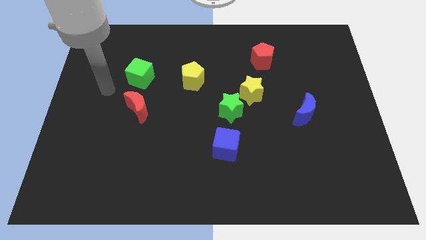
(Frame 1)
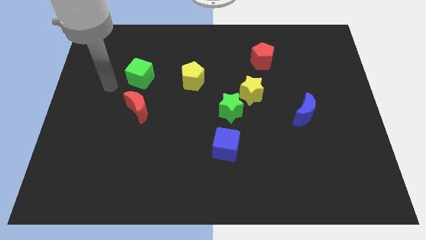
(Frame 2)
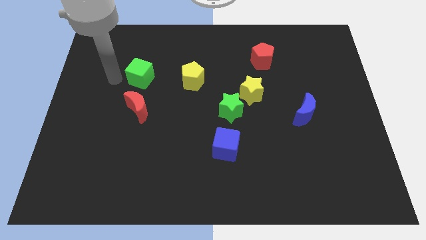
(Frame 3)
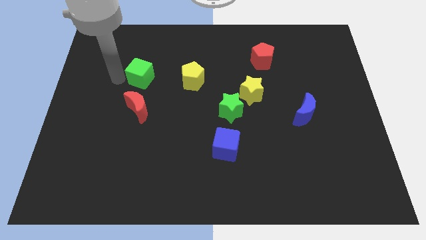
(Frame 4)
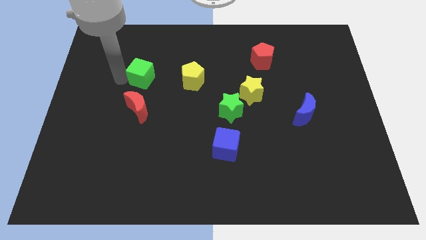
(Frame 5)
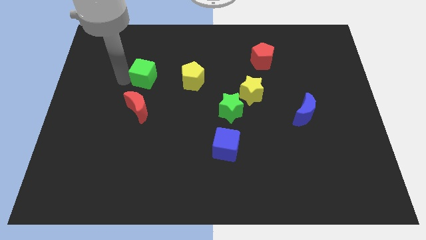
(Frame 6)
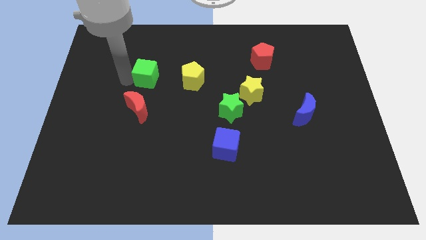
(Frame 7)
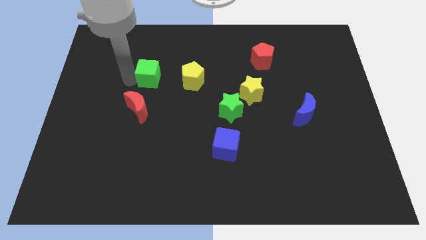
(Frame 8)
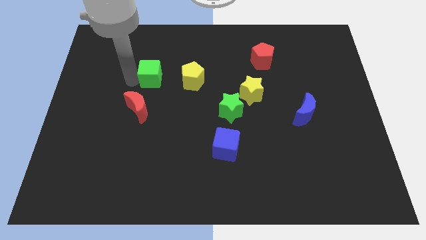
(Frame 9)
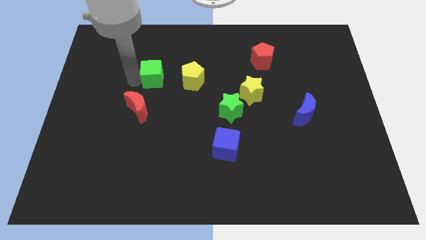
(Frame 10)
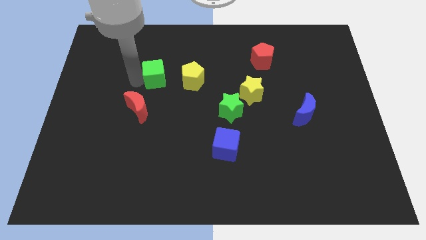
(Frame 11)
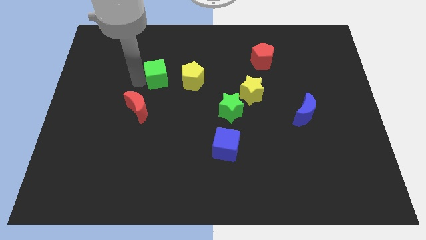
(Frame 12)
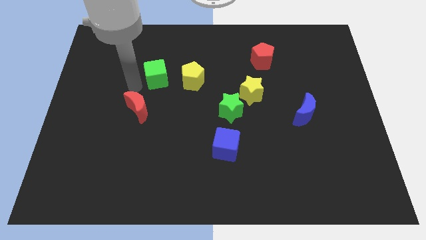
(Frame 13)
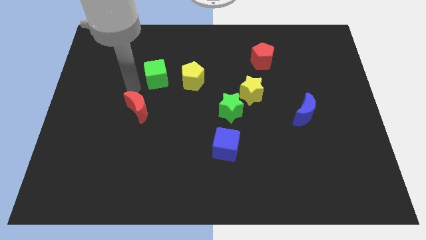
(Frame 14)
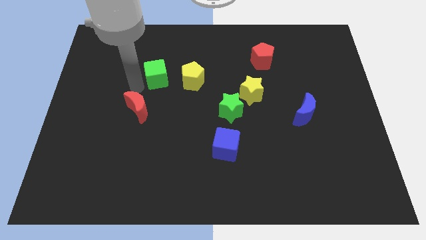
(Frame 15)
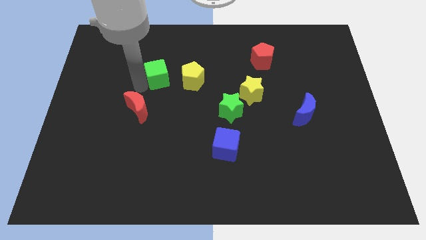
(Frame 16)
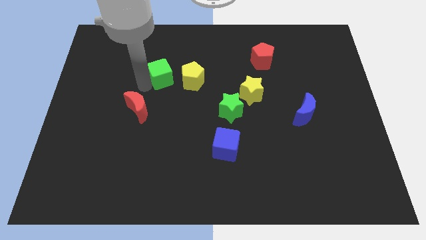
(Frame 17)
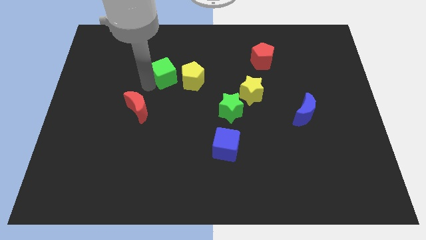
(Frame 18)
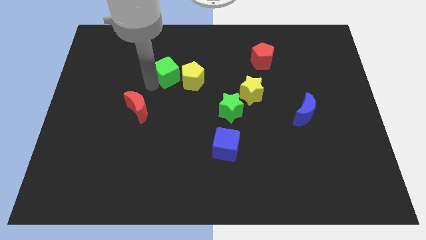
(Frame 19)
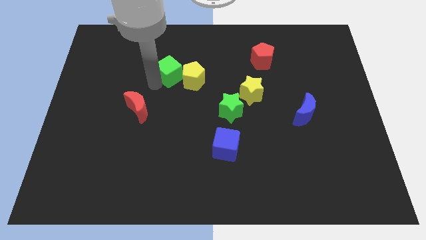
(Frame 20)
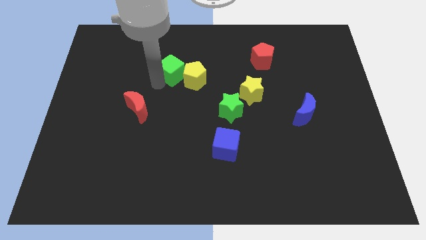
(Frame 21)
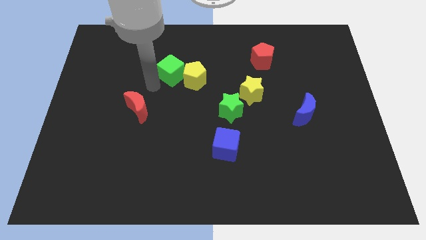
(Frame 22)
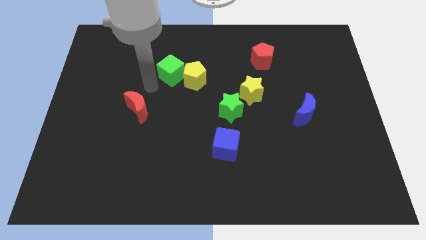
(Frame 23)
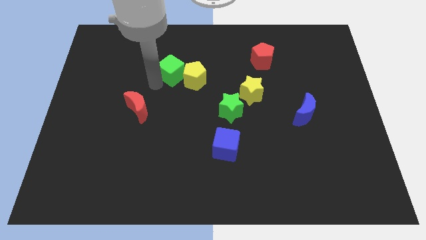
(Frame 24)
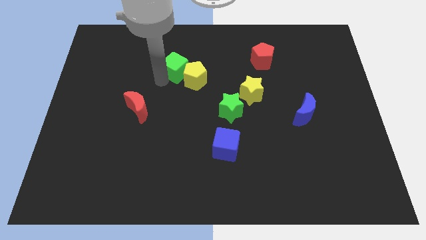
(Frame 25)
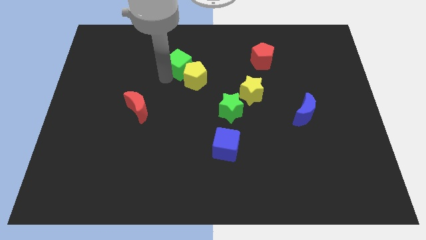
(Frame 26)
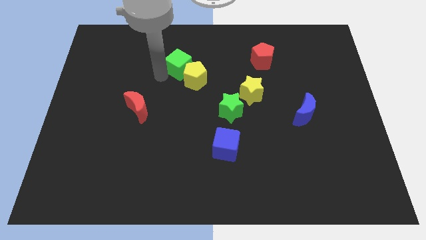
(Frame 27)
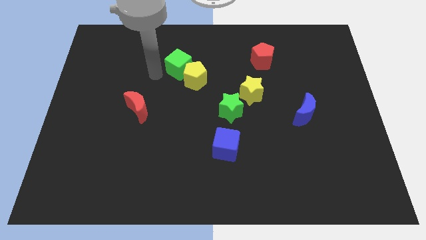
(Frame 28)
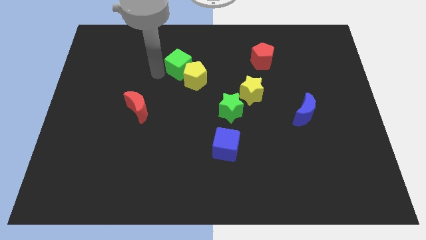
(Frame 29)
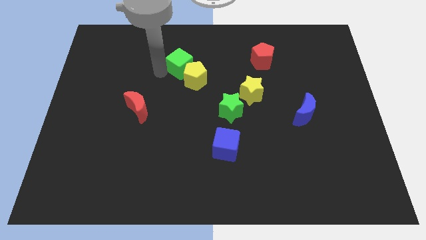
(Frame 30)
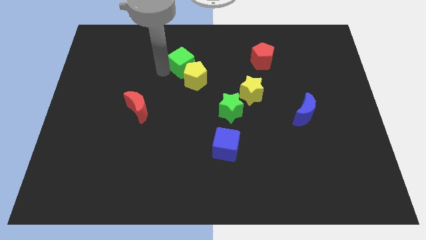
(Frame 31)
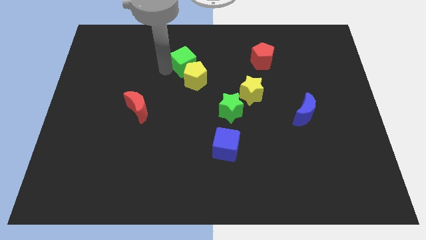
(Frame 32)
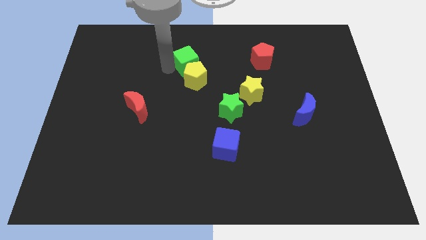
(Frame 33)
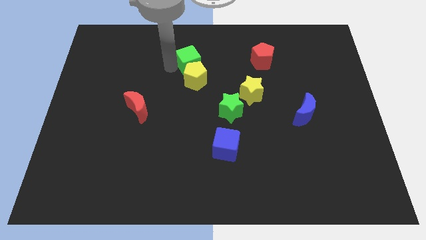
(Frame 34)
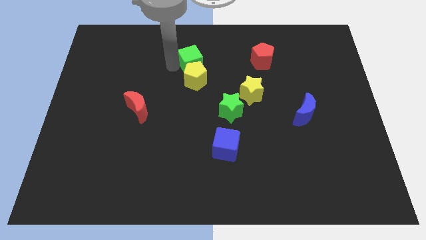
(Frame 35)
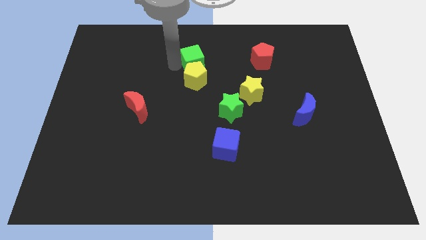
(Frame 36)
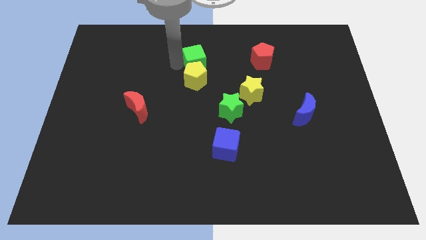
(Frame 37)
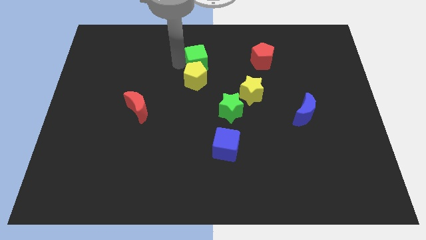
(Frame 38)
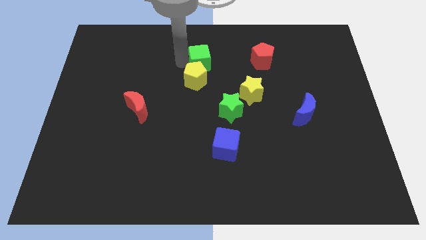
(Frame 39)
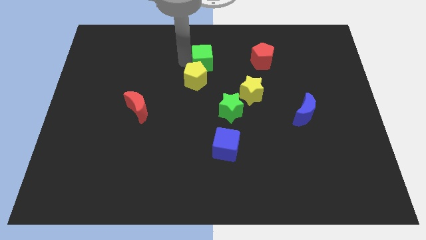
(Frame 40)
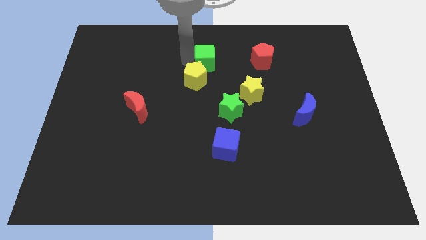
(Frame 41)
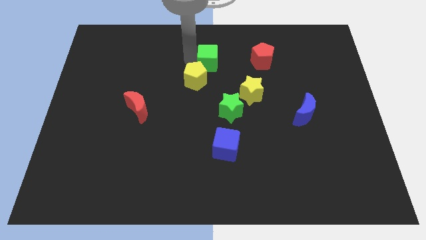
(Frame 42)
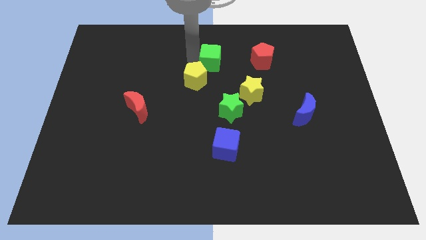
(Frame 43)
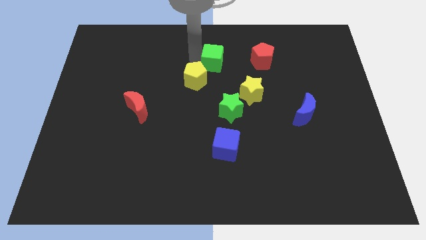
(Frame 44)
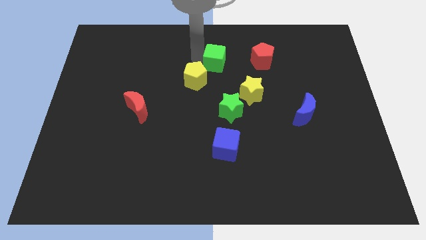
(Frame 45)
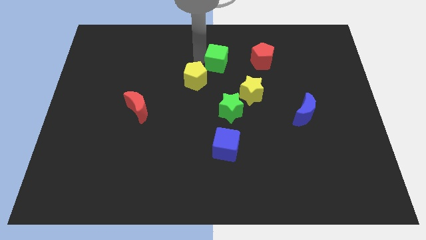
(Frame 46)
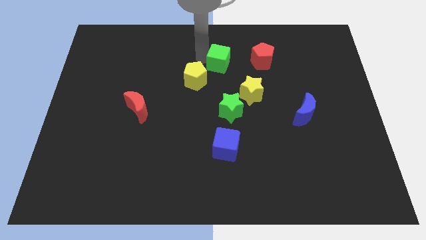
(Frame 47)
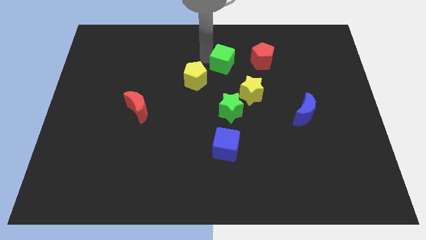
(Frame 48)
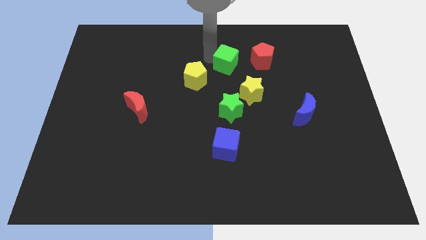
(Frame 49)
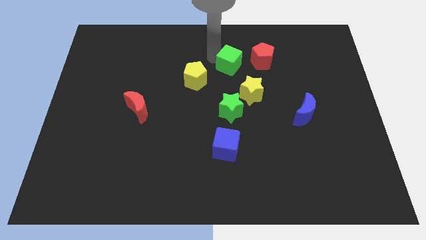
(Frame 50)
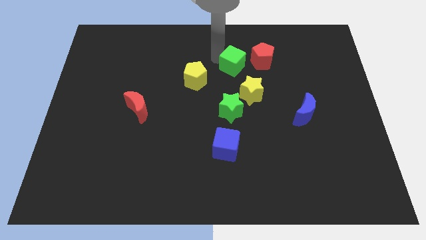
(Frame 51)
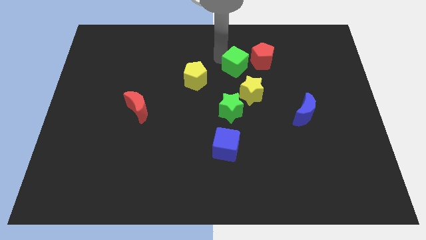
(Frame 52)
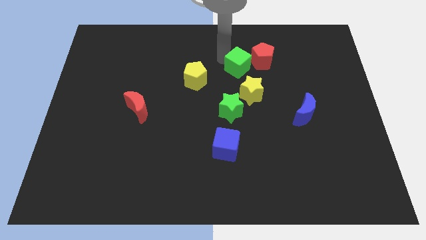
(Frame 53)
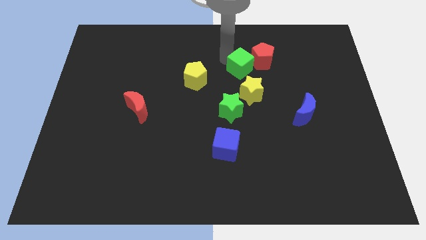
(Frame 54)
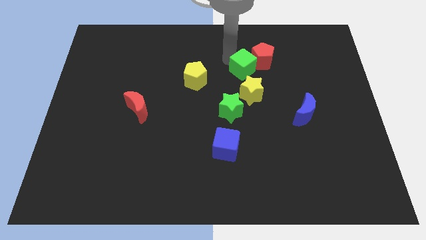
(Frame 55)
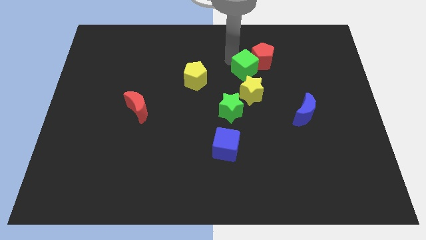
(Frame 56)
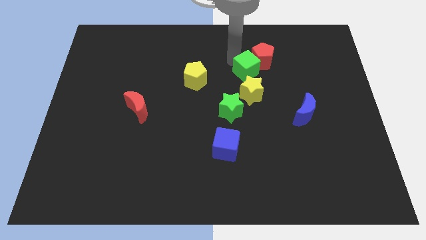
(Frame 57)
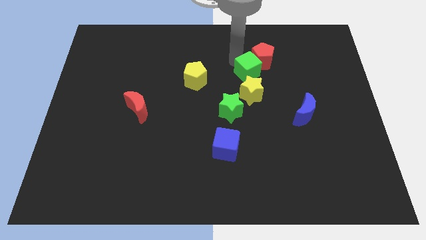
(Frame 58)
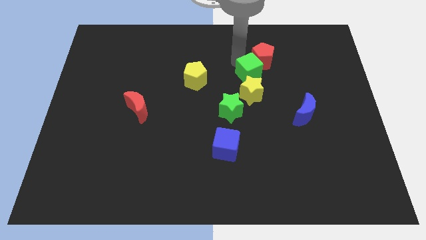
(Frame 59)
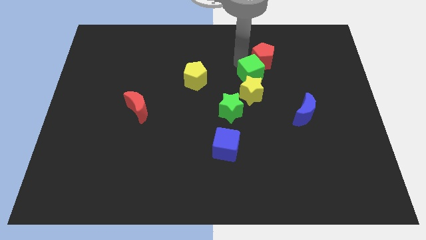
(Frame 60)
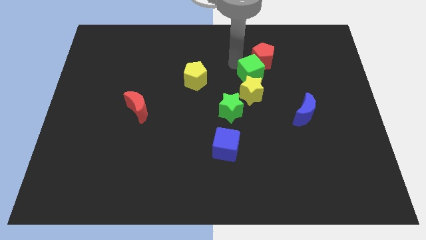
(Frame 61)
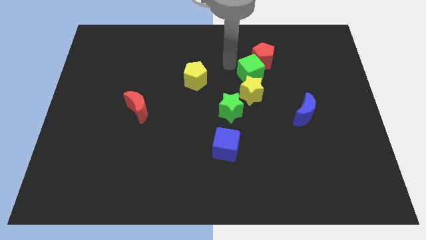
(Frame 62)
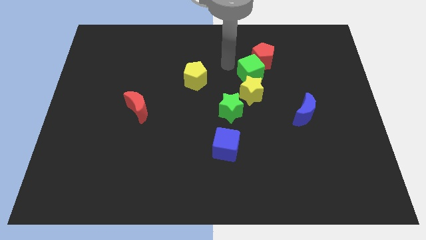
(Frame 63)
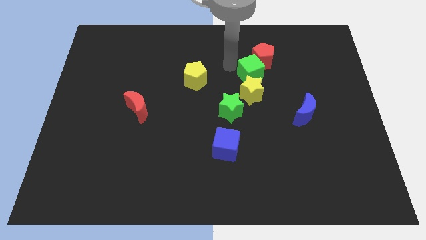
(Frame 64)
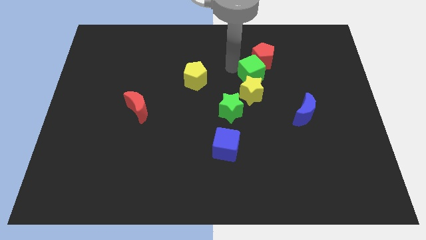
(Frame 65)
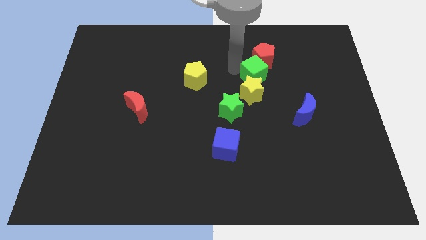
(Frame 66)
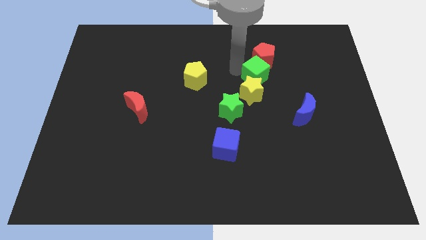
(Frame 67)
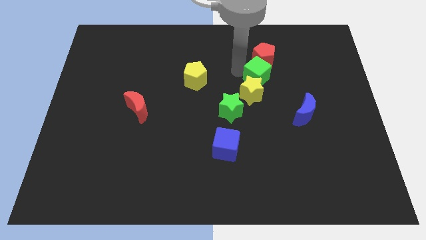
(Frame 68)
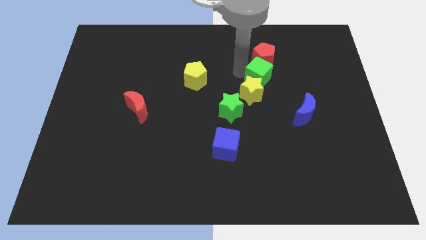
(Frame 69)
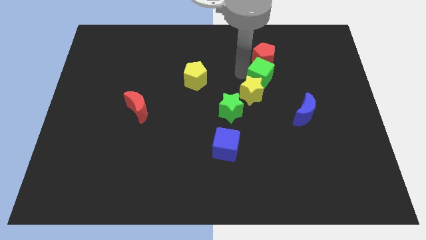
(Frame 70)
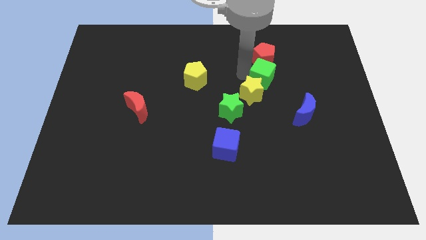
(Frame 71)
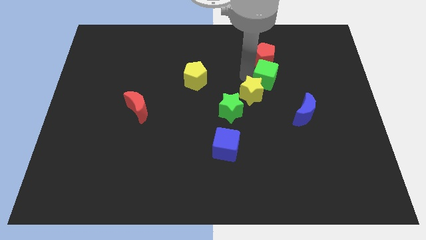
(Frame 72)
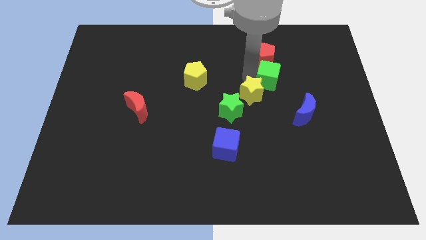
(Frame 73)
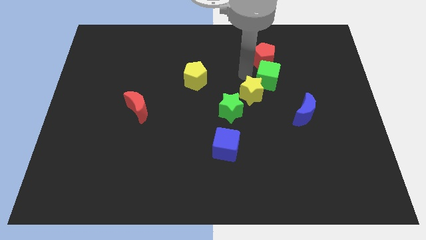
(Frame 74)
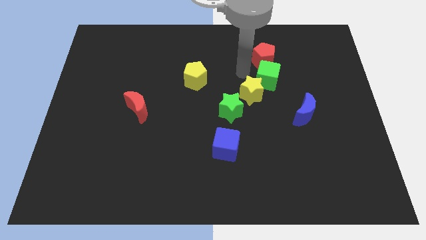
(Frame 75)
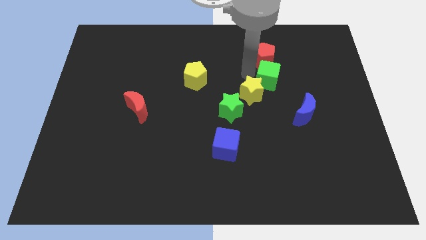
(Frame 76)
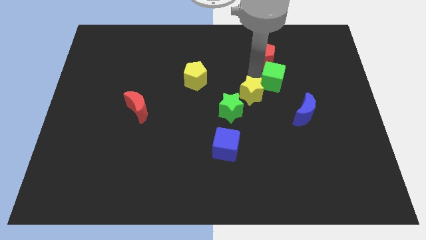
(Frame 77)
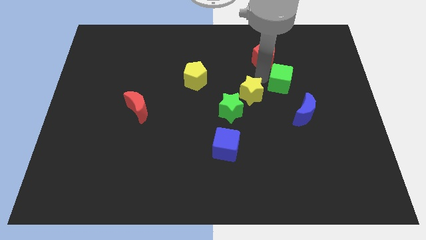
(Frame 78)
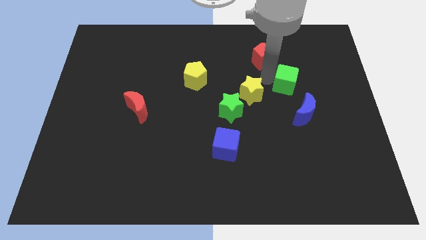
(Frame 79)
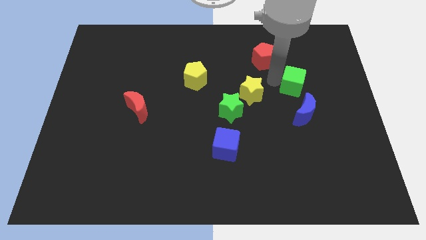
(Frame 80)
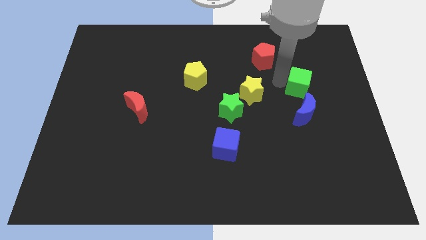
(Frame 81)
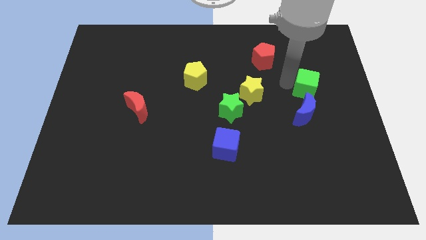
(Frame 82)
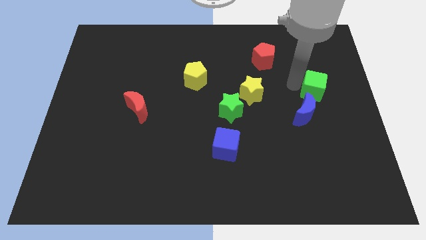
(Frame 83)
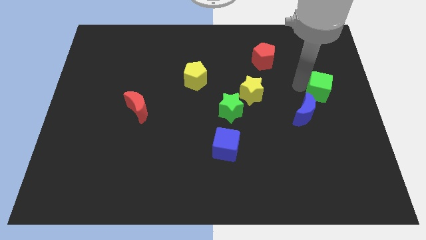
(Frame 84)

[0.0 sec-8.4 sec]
slide the green cube to the center right
